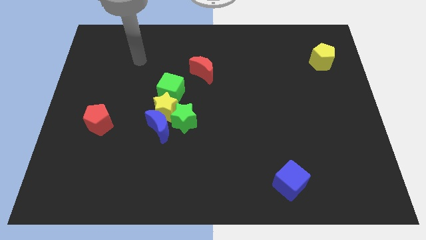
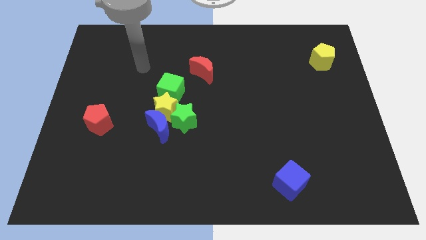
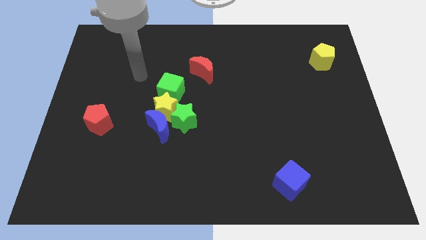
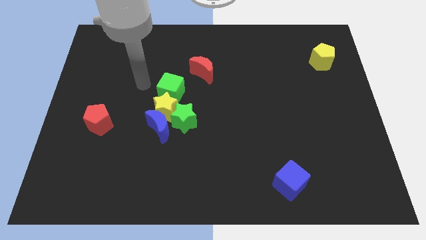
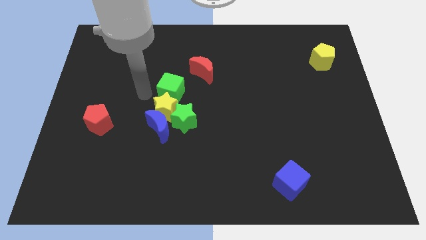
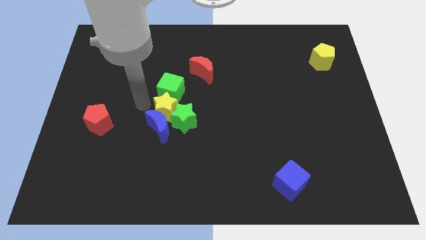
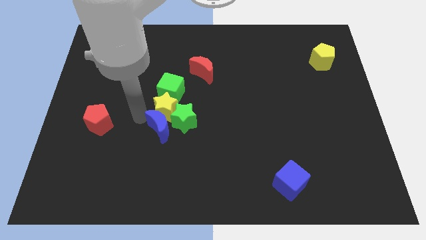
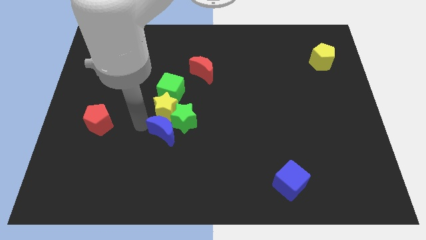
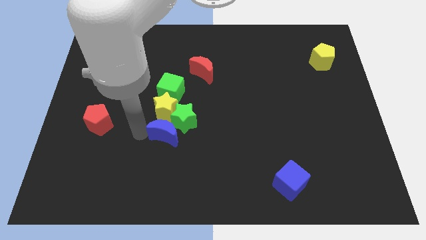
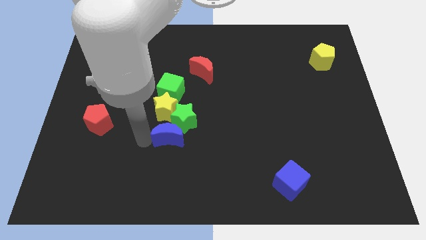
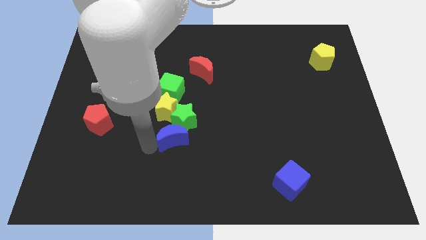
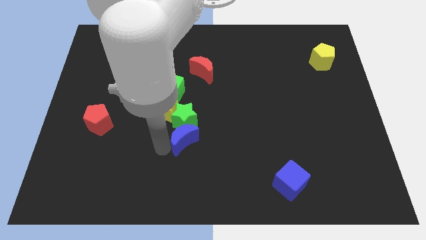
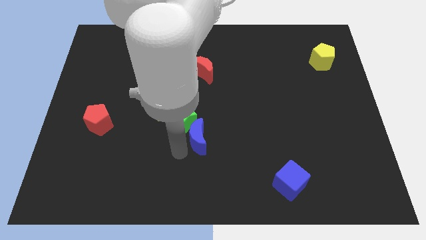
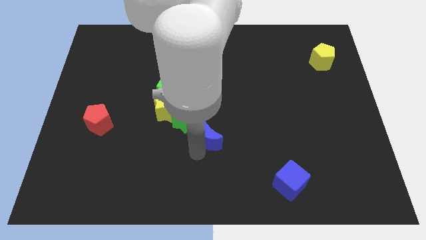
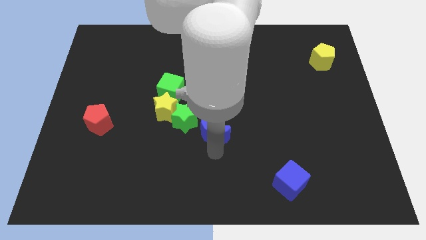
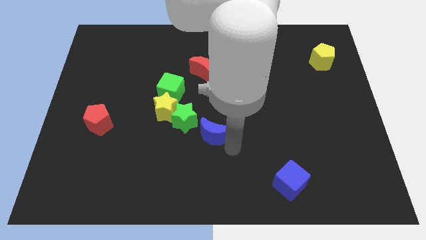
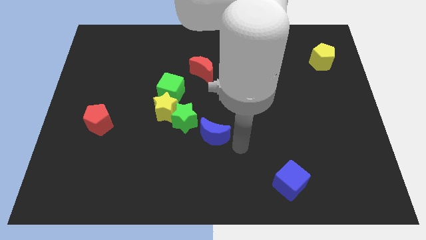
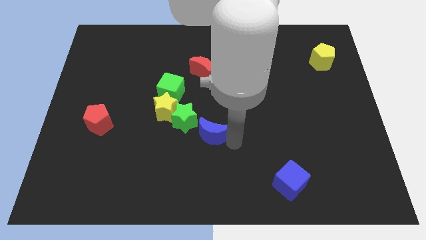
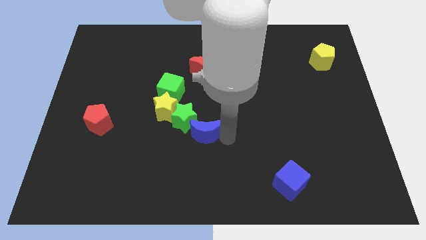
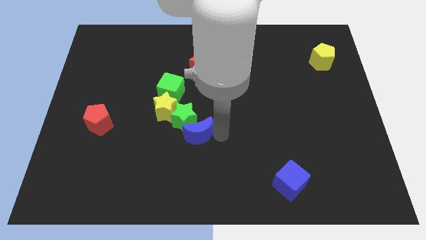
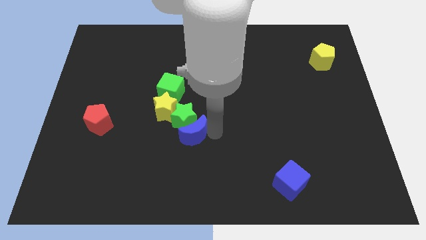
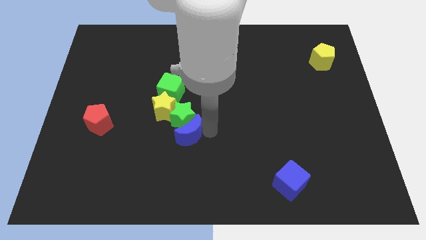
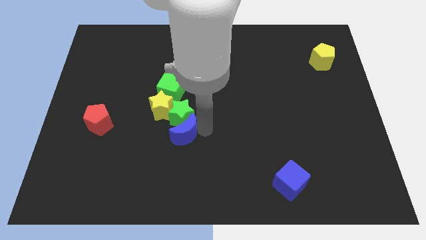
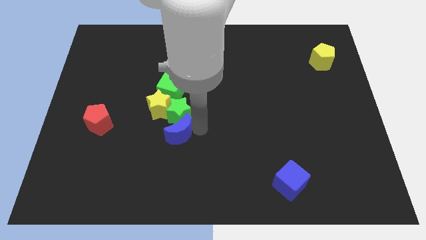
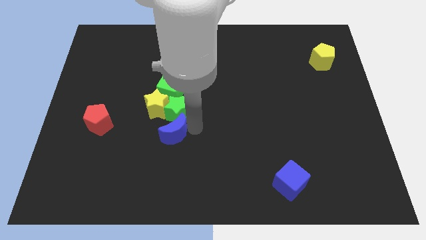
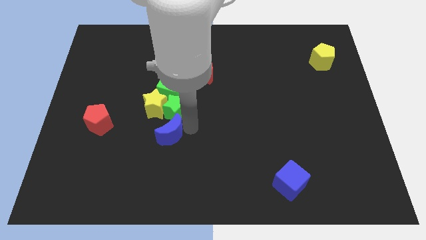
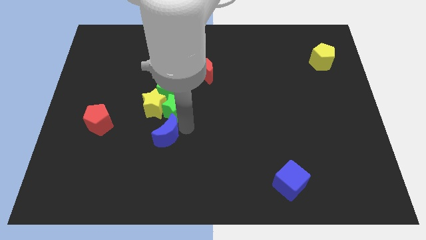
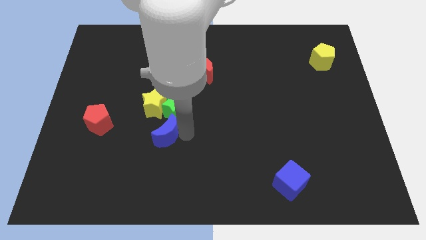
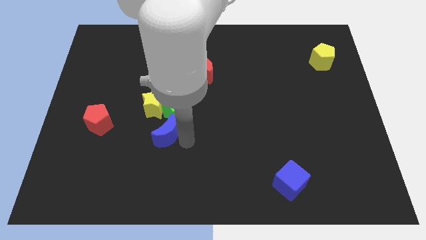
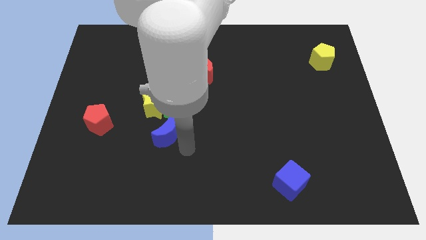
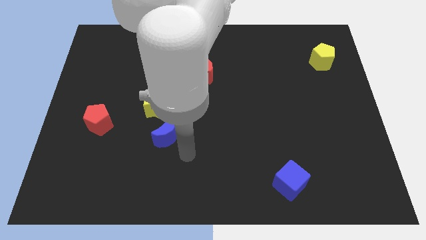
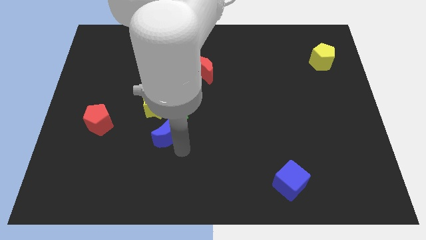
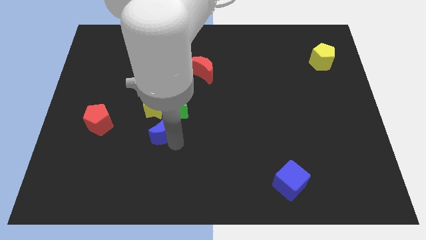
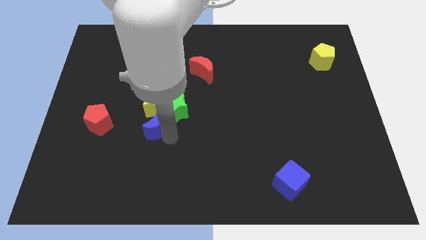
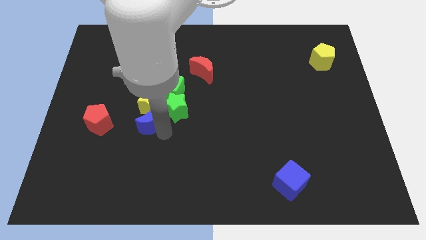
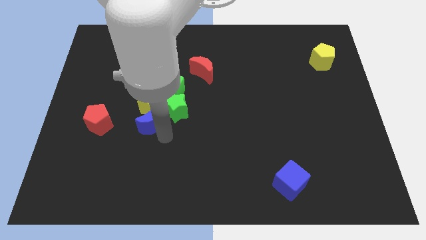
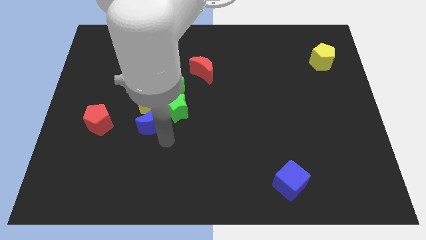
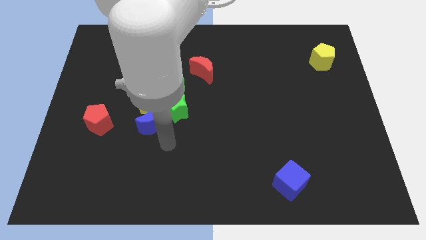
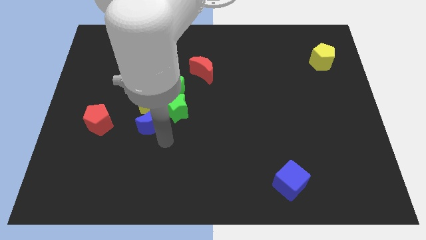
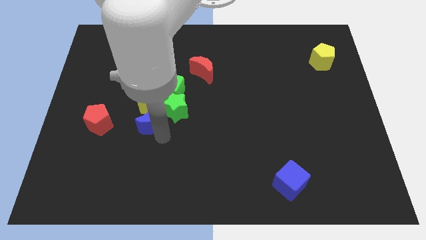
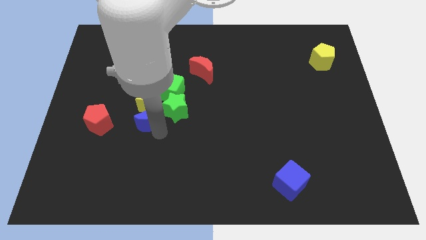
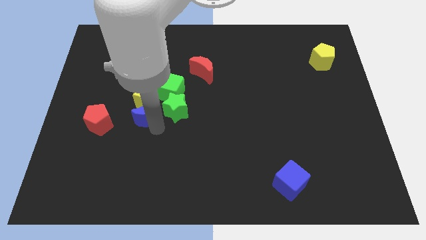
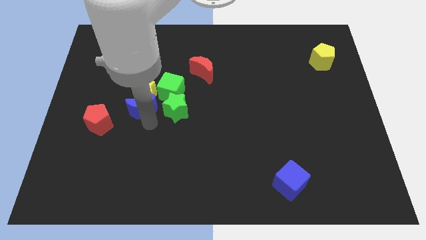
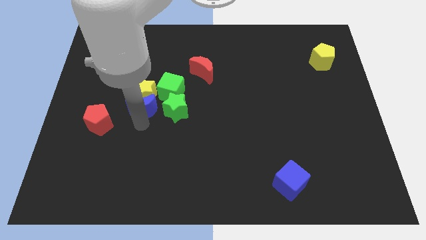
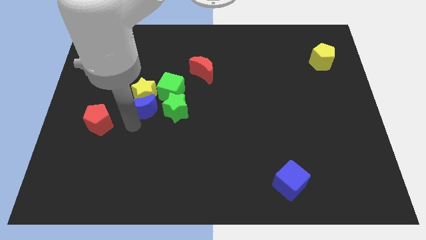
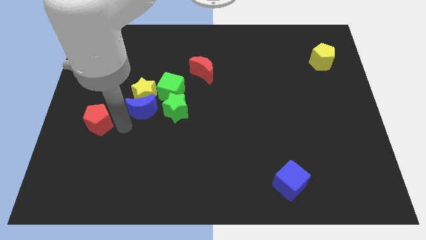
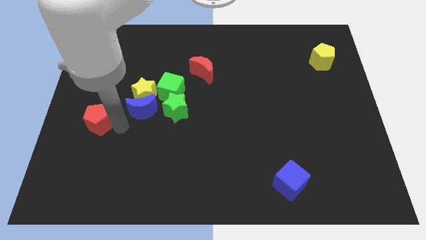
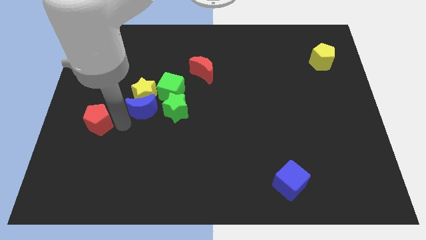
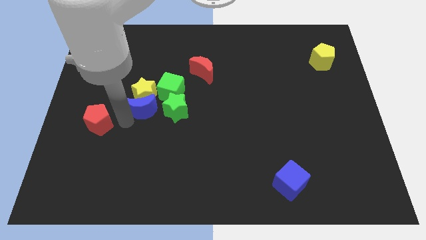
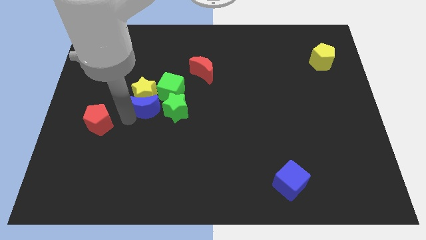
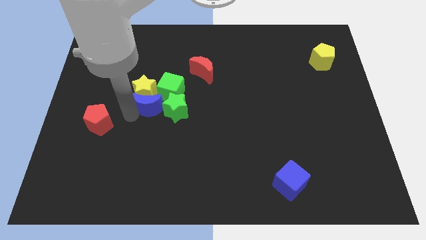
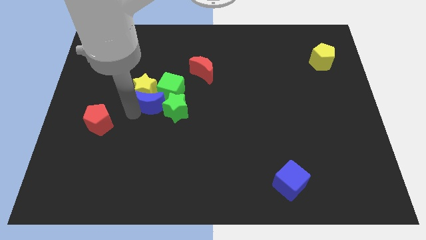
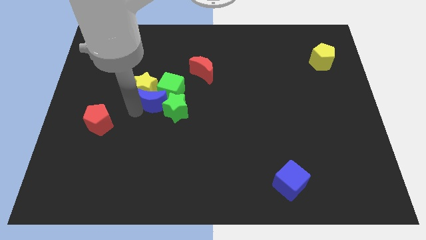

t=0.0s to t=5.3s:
push the blue moon close to the green cube

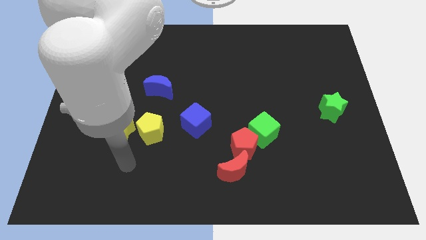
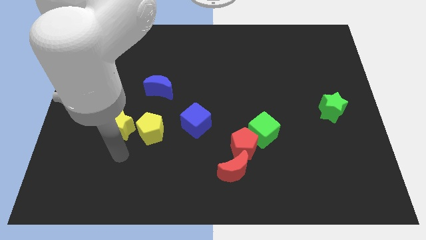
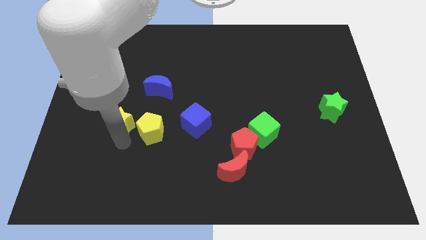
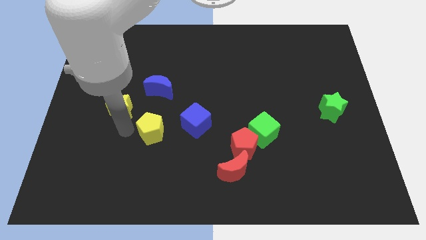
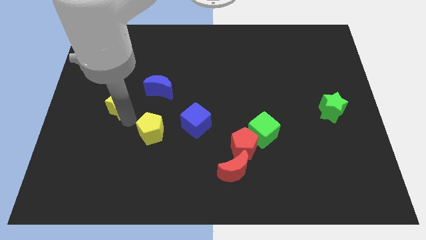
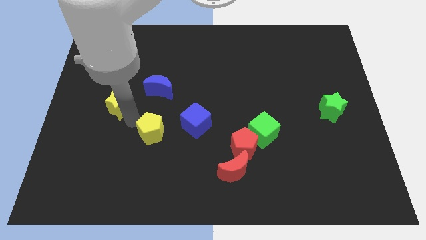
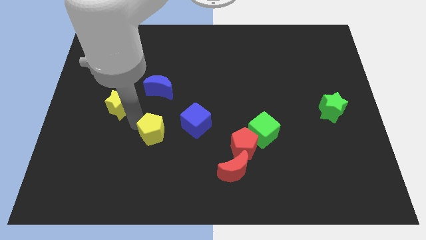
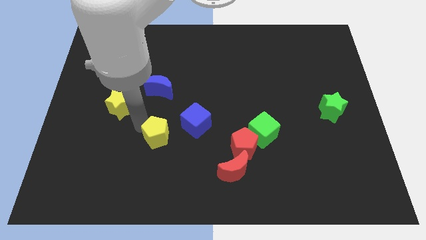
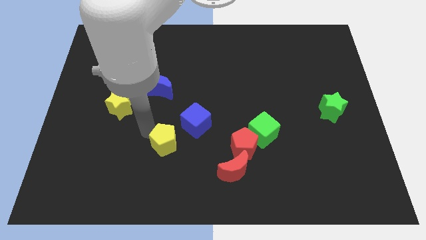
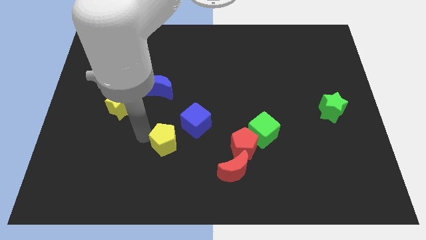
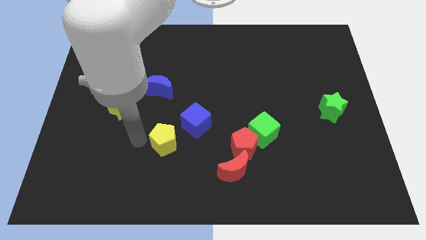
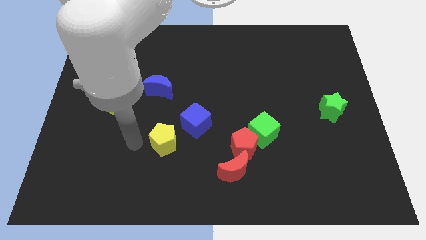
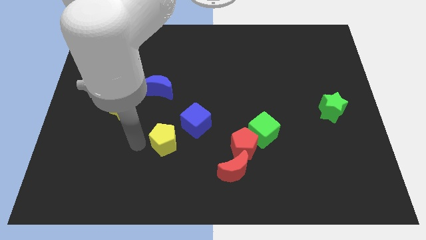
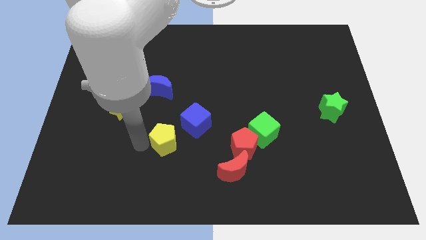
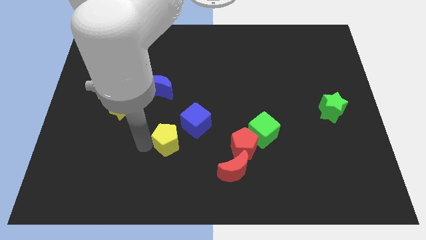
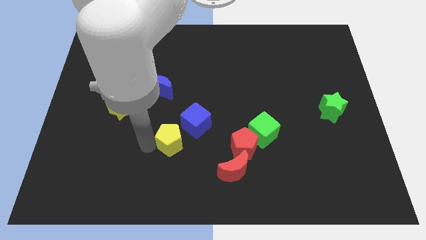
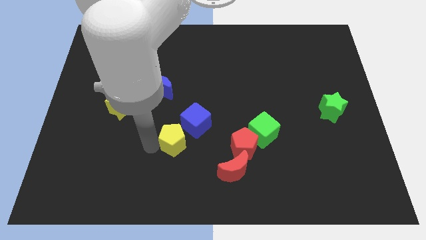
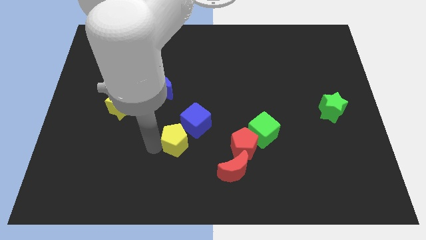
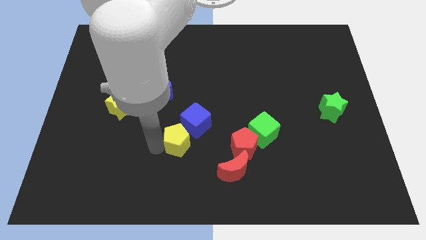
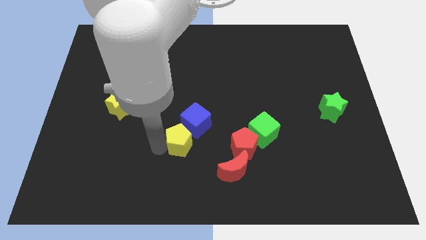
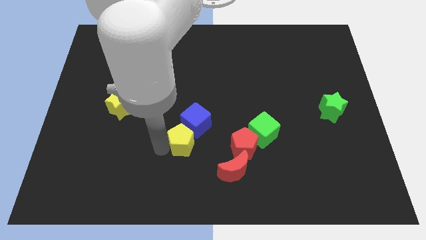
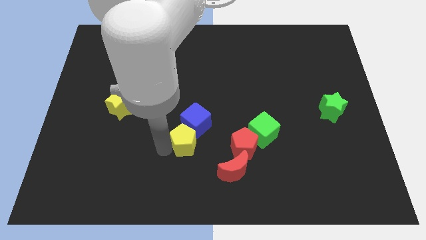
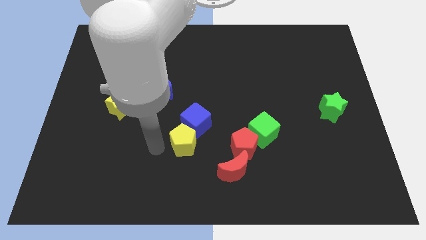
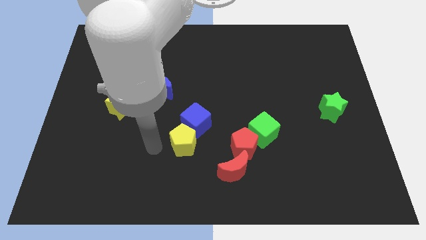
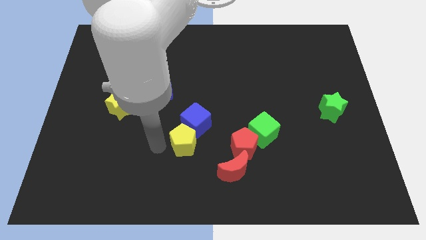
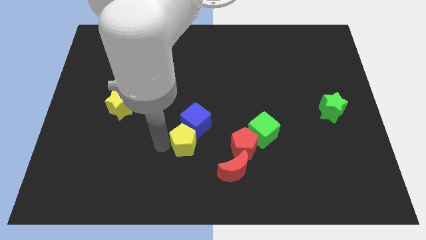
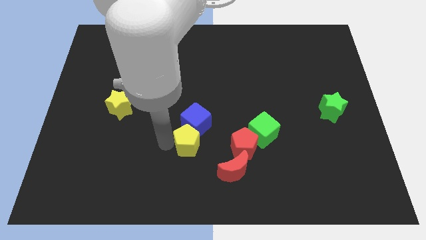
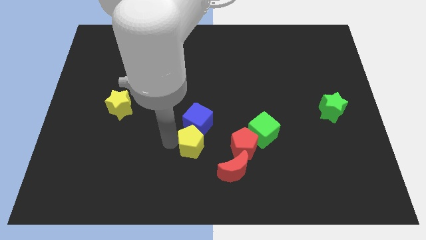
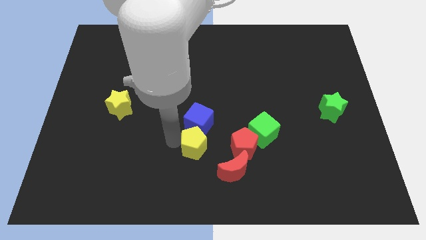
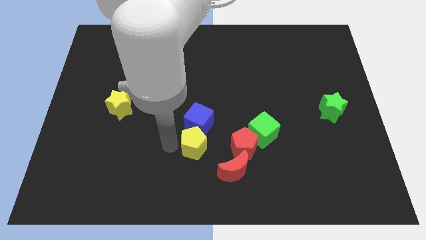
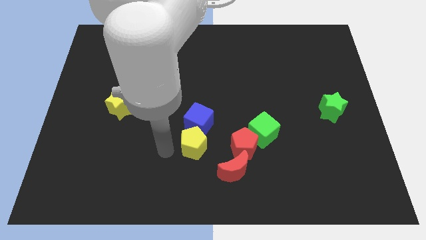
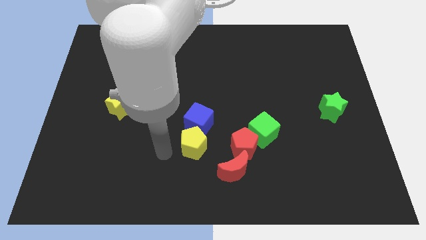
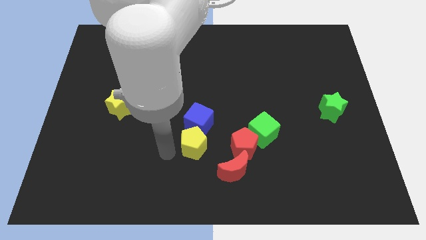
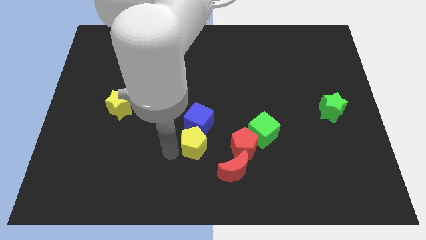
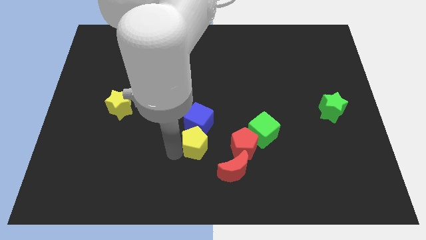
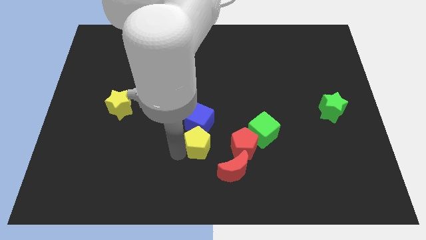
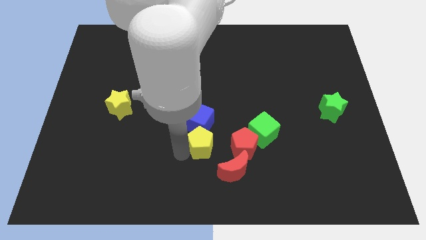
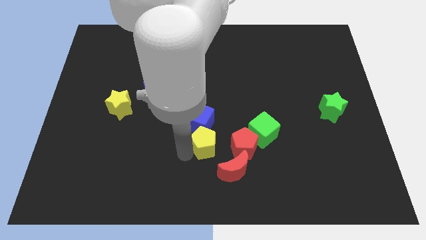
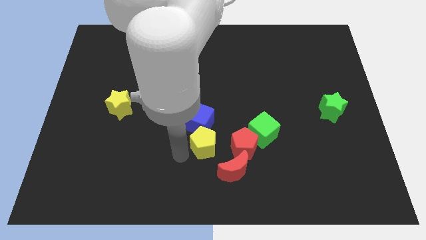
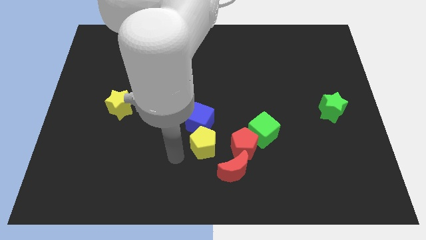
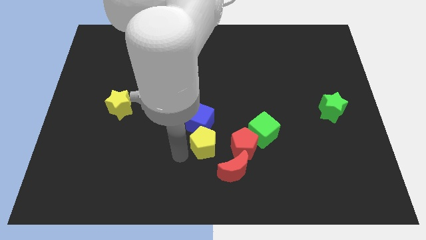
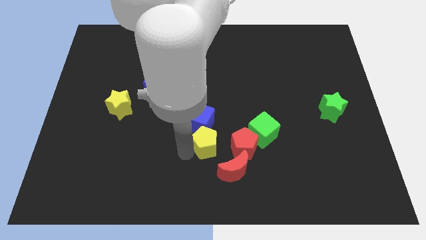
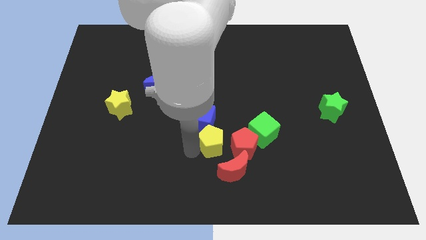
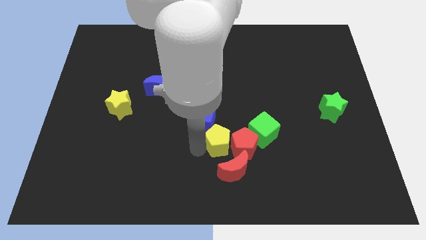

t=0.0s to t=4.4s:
push the yellow pentagon to the red pentagon
